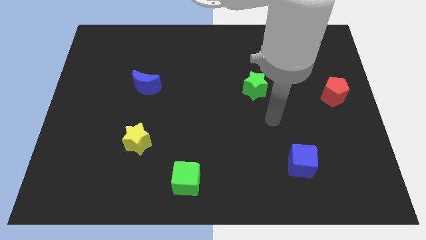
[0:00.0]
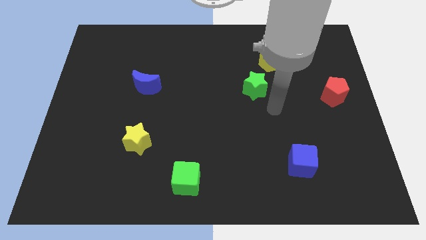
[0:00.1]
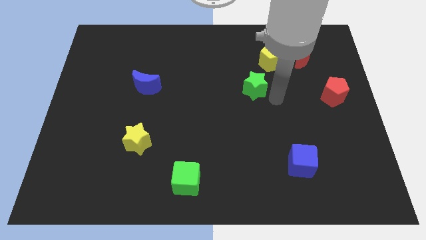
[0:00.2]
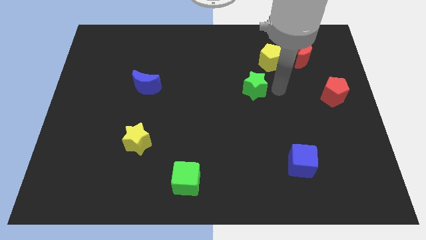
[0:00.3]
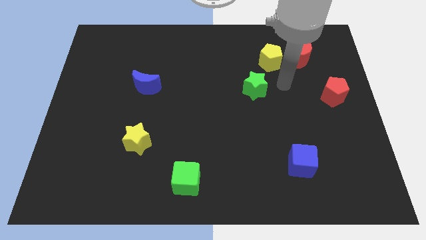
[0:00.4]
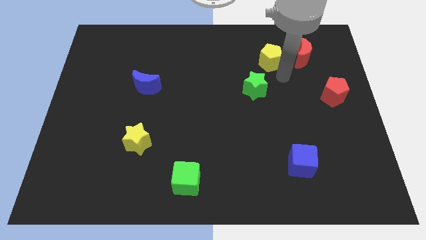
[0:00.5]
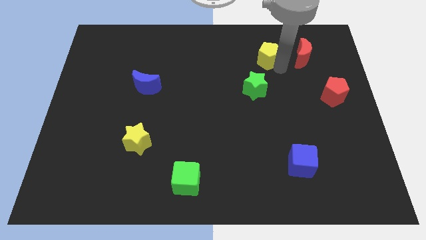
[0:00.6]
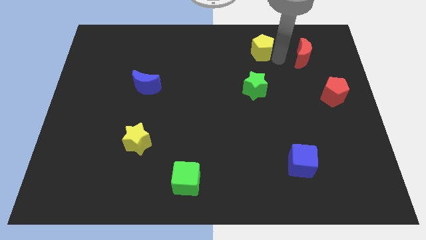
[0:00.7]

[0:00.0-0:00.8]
pull the red moon apart from the yellow pentagon

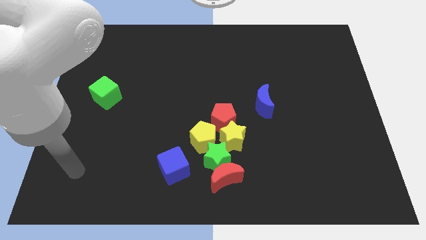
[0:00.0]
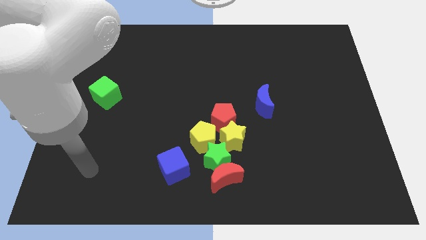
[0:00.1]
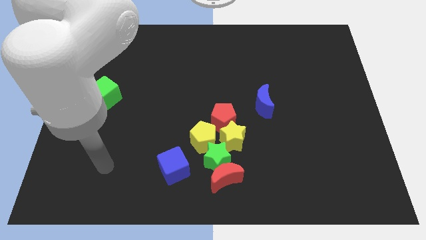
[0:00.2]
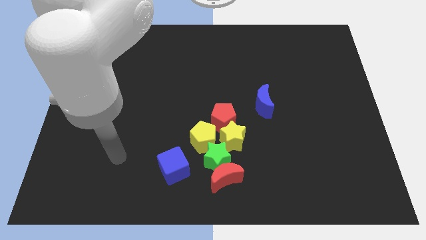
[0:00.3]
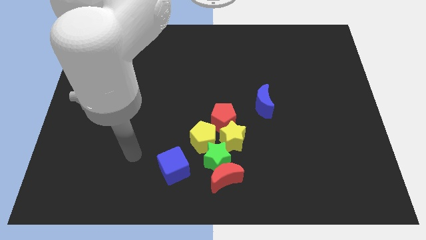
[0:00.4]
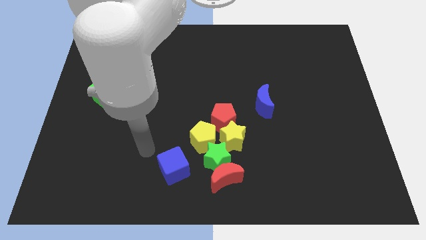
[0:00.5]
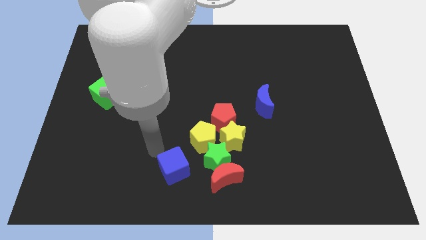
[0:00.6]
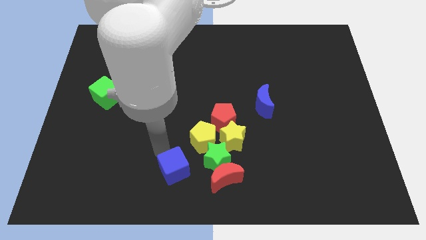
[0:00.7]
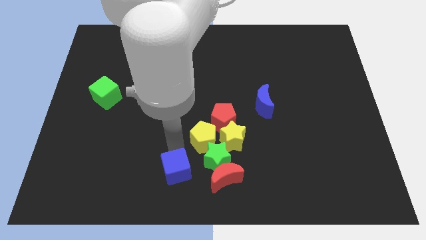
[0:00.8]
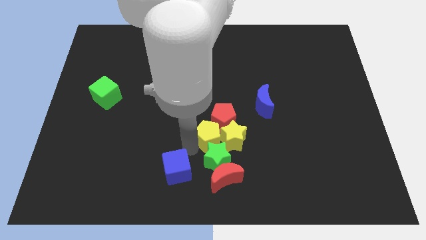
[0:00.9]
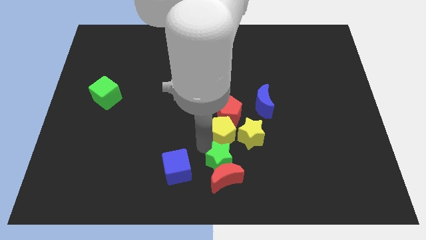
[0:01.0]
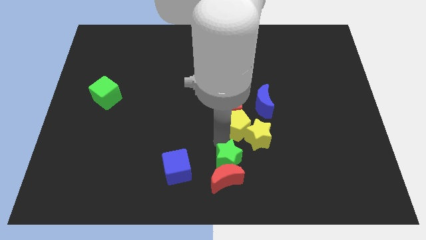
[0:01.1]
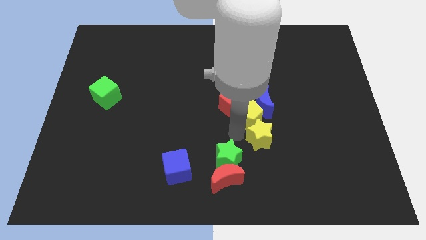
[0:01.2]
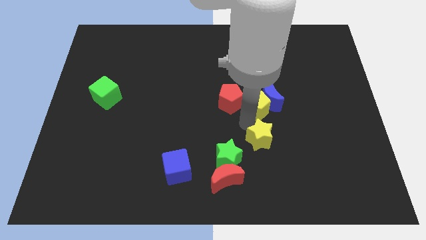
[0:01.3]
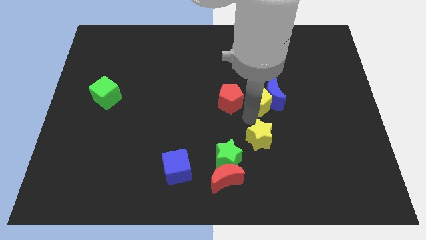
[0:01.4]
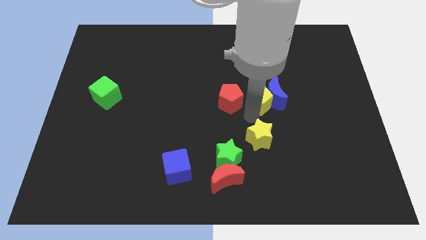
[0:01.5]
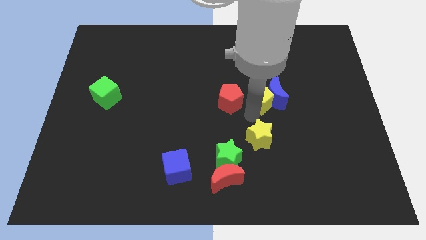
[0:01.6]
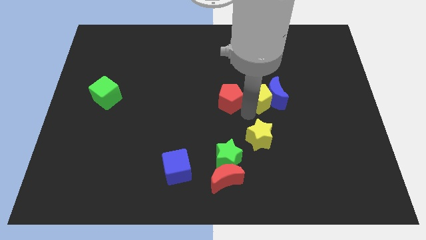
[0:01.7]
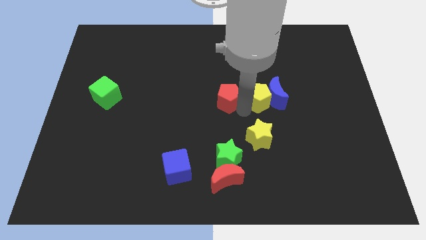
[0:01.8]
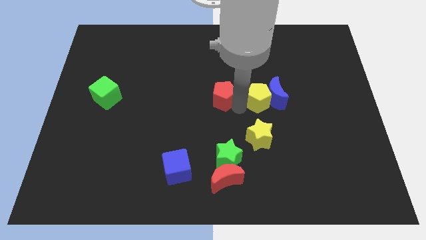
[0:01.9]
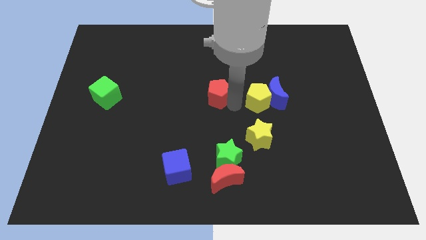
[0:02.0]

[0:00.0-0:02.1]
move the red pentagon away from the yellow star and yellow pentagon

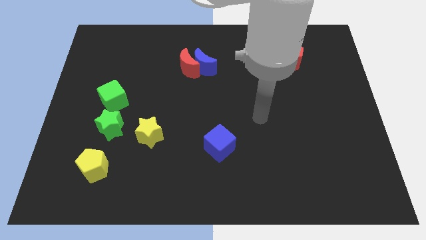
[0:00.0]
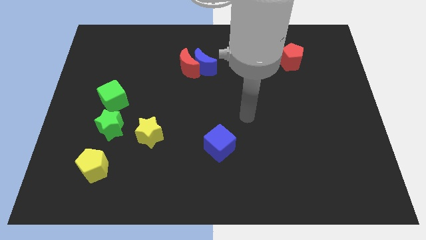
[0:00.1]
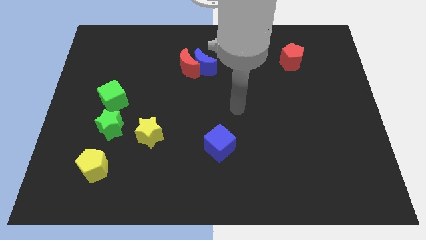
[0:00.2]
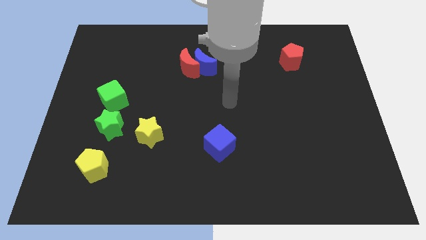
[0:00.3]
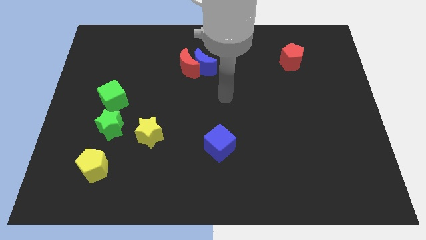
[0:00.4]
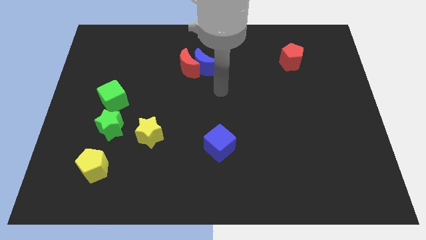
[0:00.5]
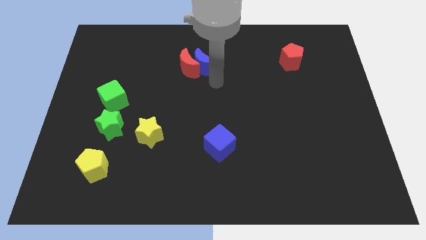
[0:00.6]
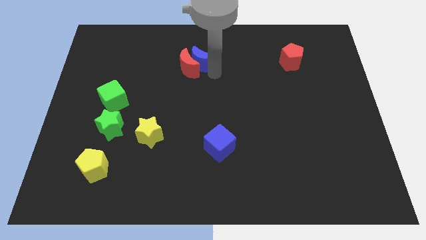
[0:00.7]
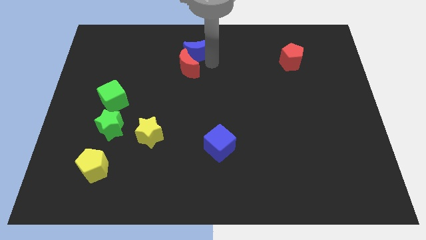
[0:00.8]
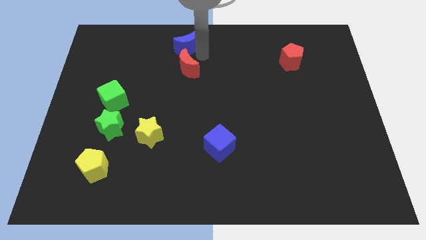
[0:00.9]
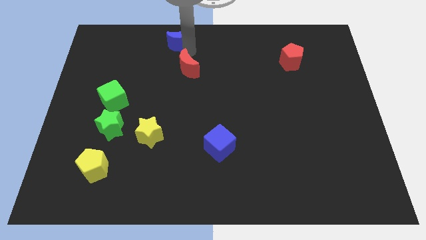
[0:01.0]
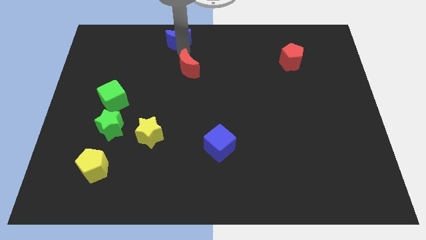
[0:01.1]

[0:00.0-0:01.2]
pull the red moon apart from the blue moon

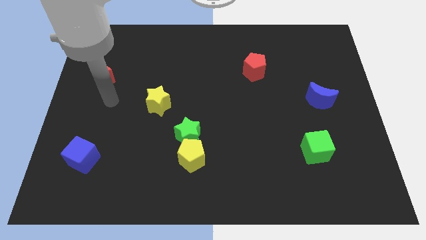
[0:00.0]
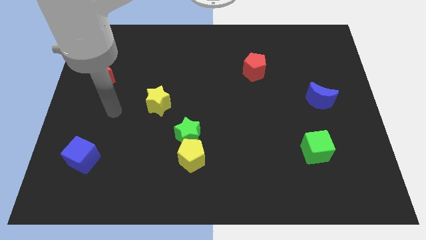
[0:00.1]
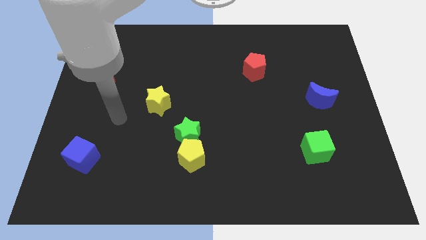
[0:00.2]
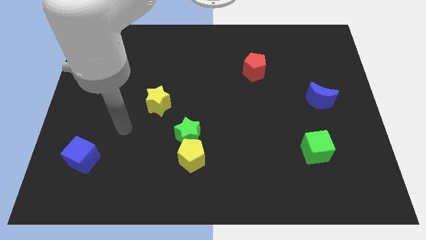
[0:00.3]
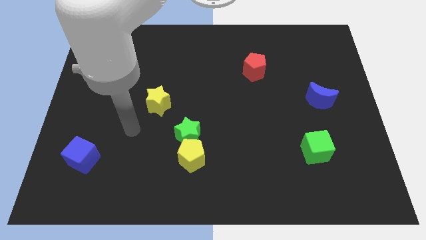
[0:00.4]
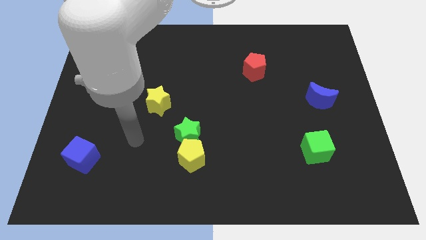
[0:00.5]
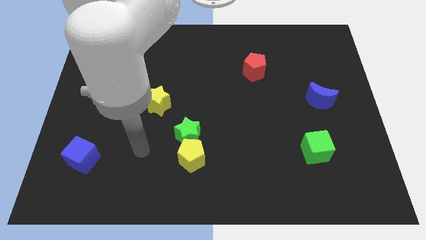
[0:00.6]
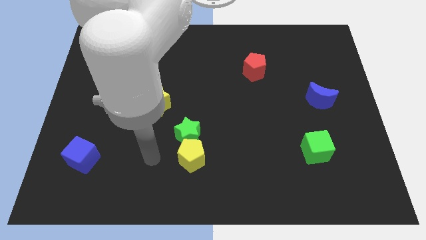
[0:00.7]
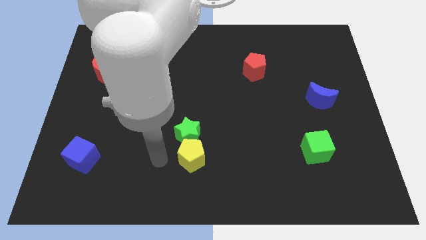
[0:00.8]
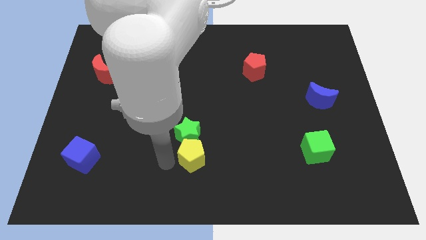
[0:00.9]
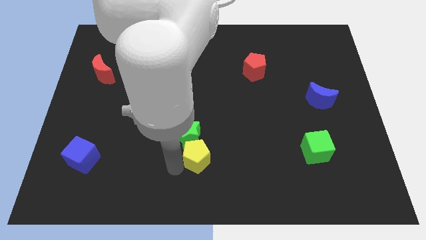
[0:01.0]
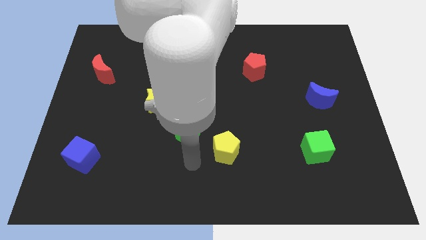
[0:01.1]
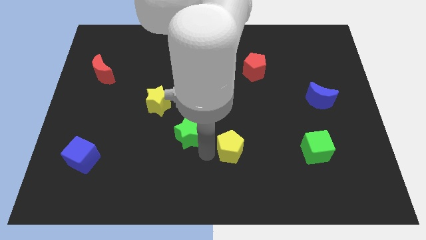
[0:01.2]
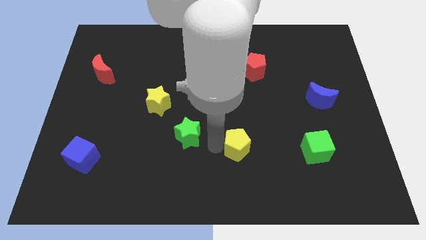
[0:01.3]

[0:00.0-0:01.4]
move the green star away from the yellow pentagon

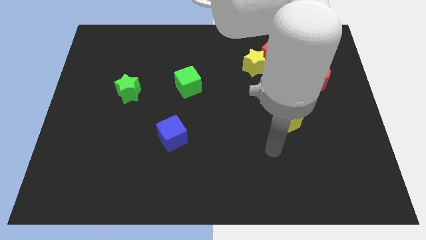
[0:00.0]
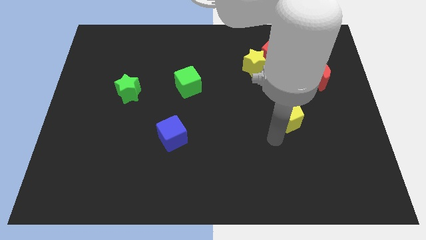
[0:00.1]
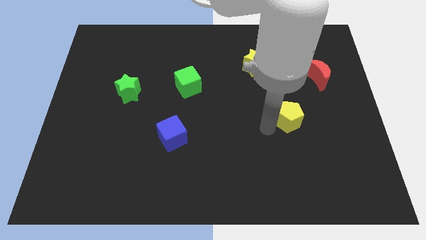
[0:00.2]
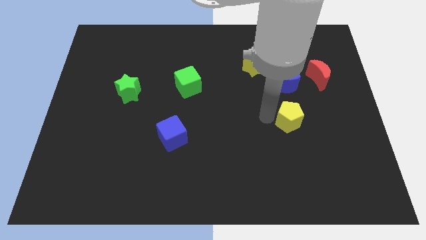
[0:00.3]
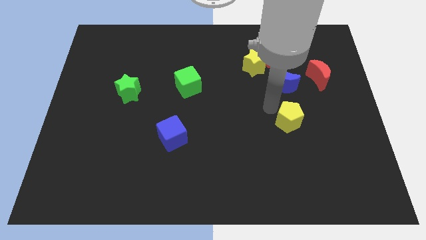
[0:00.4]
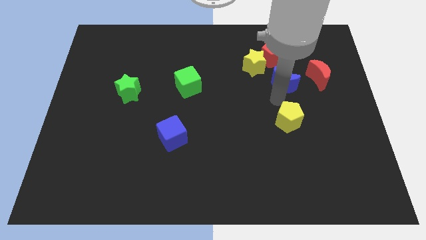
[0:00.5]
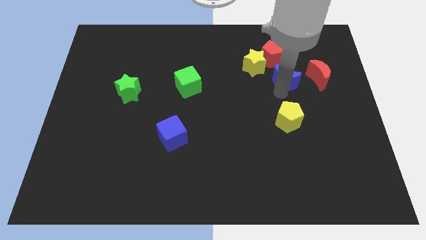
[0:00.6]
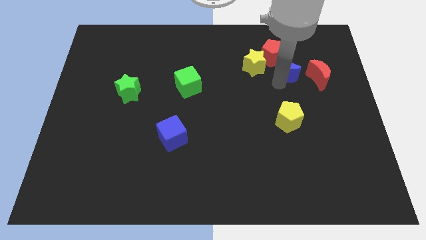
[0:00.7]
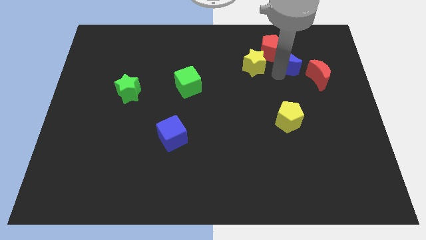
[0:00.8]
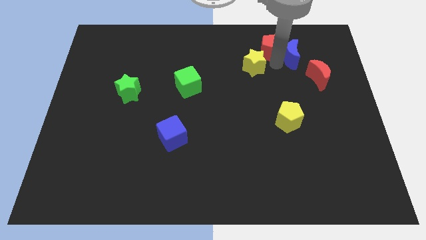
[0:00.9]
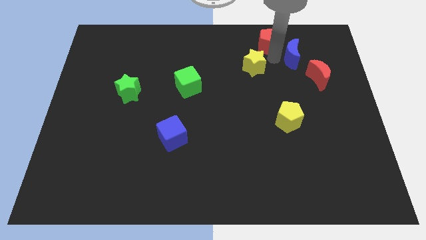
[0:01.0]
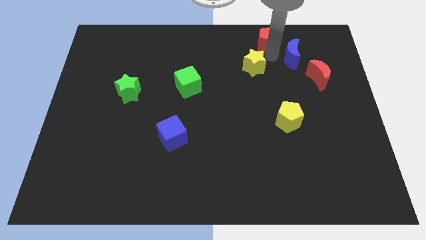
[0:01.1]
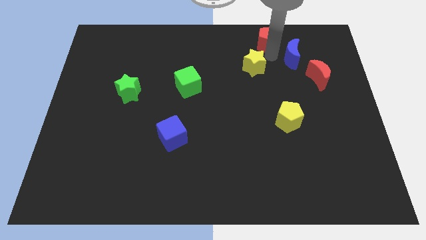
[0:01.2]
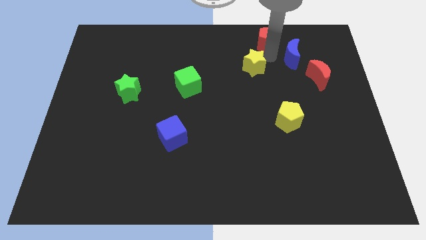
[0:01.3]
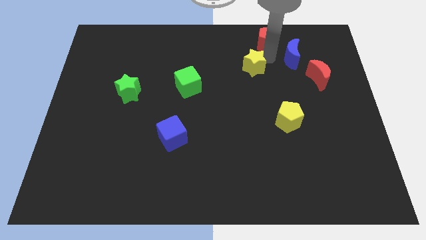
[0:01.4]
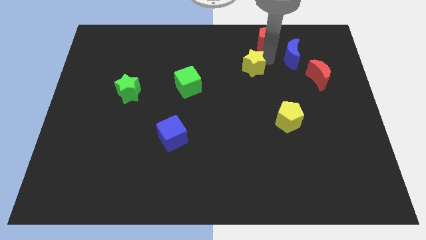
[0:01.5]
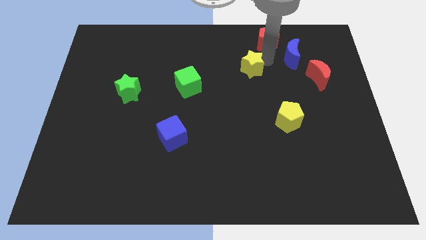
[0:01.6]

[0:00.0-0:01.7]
move the yellow star away from the red pentagon and blue moon

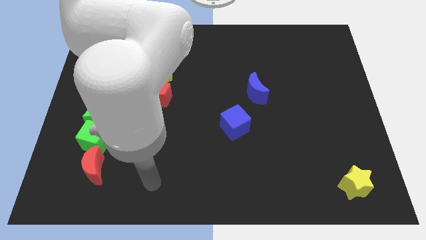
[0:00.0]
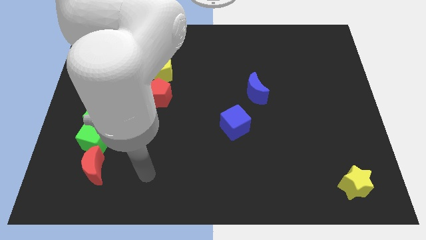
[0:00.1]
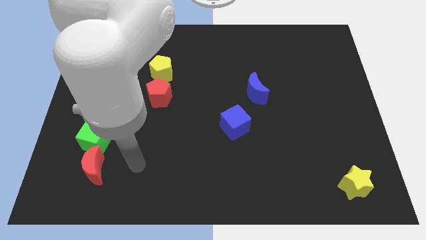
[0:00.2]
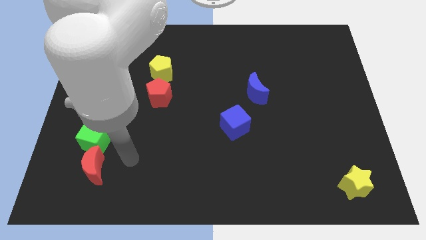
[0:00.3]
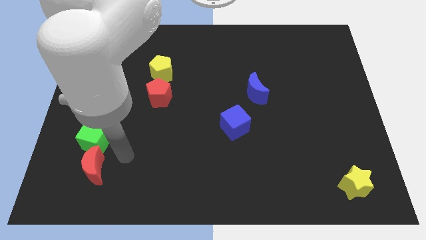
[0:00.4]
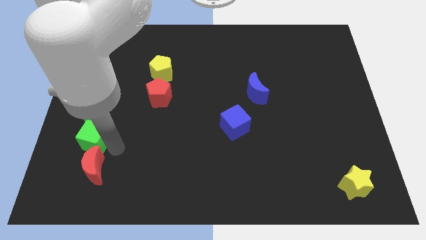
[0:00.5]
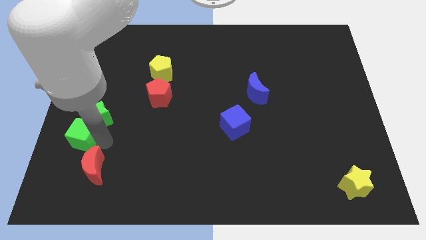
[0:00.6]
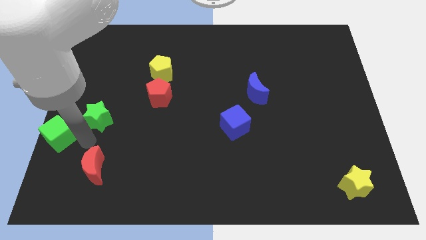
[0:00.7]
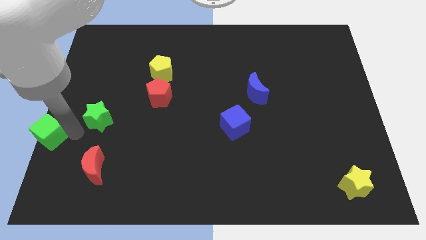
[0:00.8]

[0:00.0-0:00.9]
pull the green star apart from the green cube

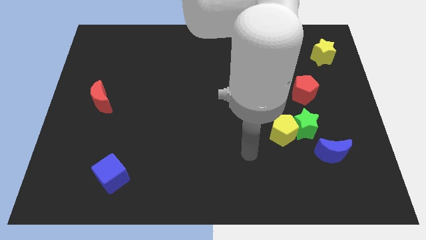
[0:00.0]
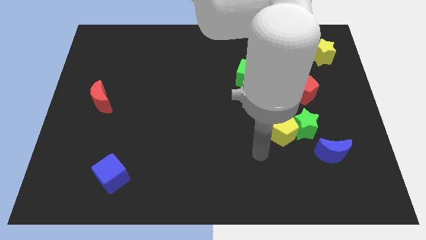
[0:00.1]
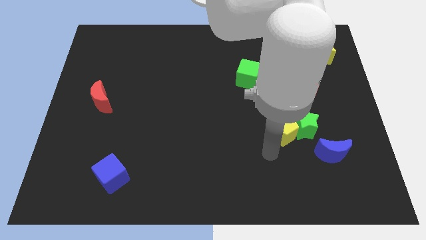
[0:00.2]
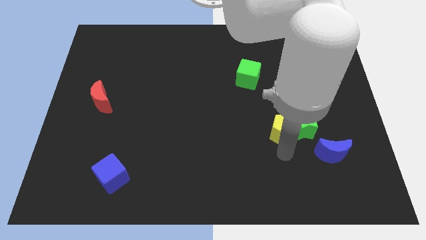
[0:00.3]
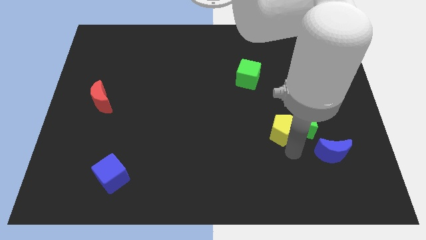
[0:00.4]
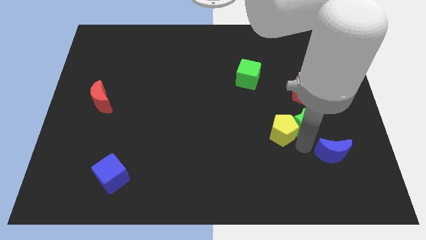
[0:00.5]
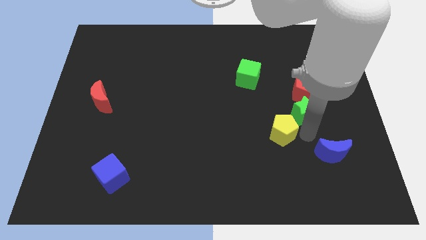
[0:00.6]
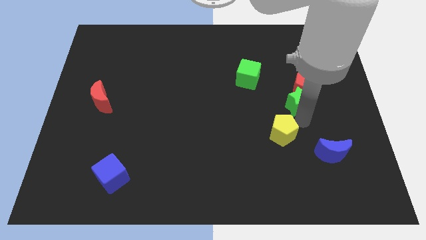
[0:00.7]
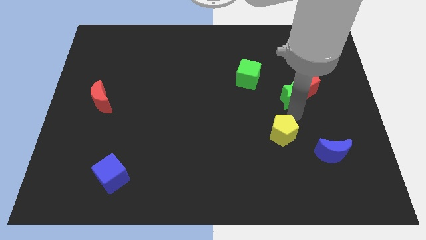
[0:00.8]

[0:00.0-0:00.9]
pull the yellow pentagon apart from the green star

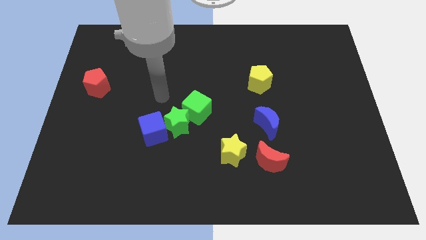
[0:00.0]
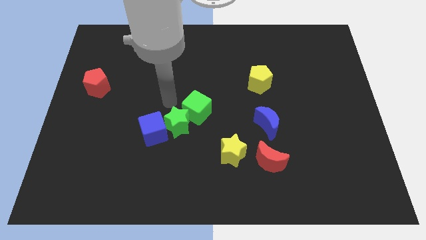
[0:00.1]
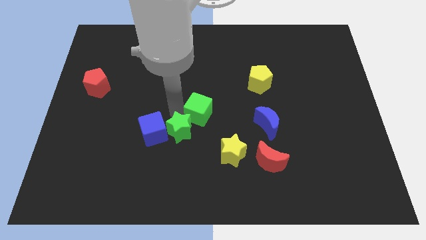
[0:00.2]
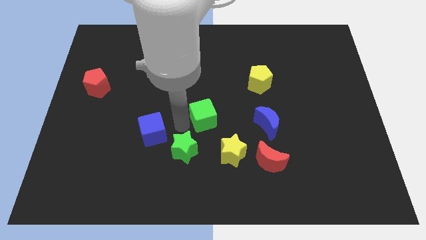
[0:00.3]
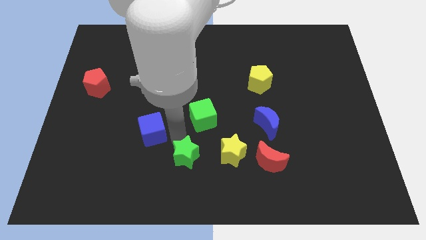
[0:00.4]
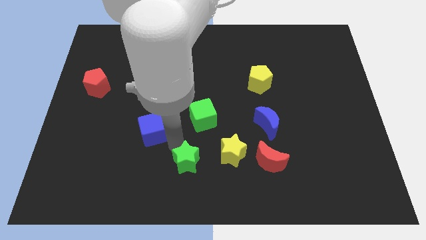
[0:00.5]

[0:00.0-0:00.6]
move the blue cube away from the green star
